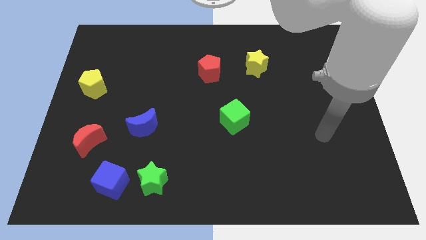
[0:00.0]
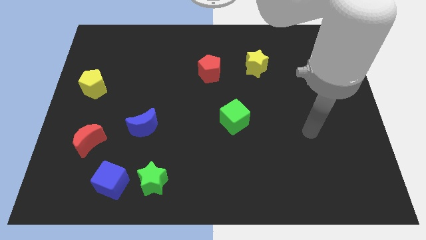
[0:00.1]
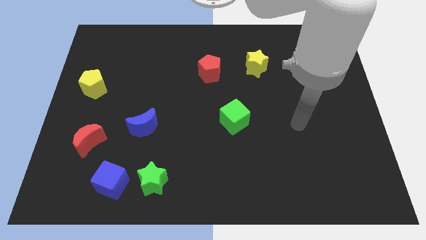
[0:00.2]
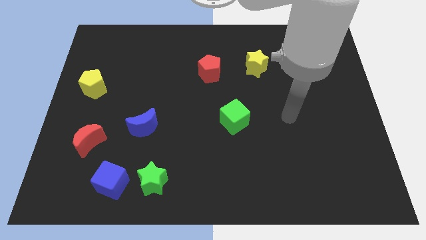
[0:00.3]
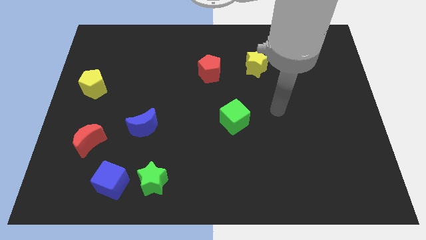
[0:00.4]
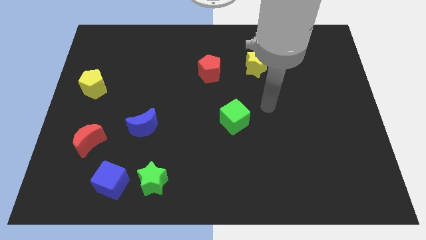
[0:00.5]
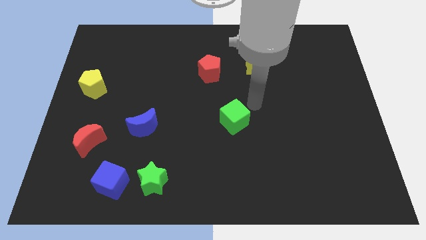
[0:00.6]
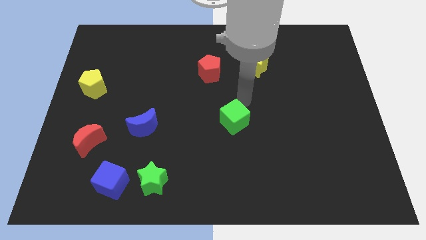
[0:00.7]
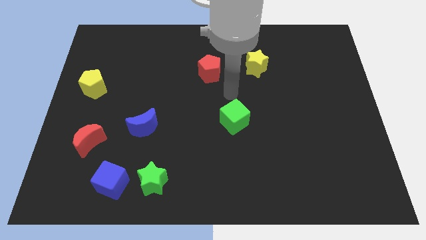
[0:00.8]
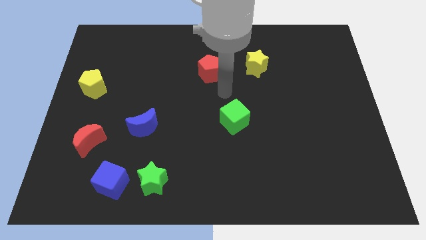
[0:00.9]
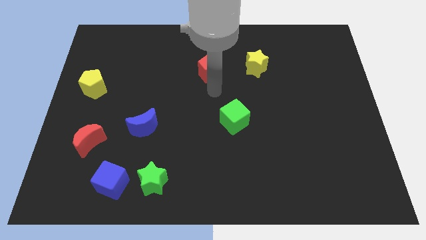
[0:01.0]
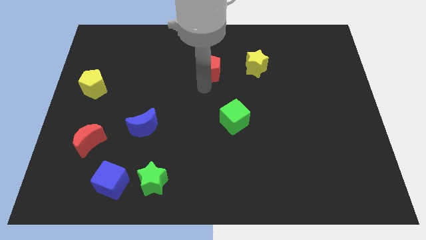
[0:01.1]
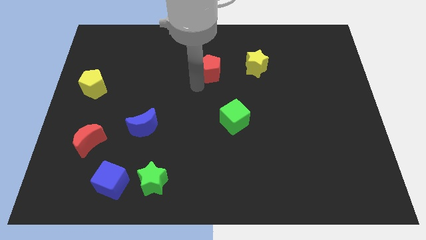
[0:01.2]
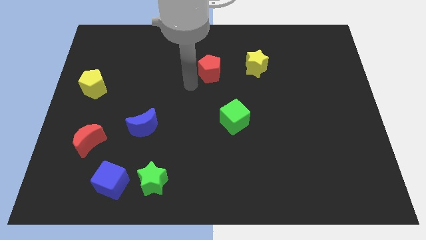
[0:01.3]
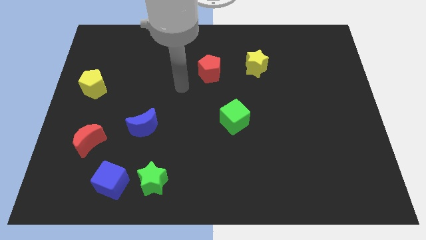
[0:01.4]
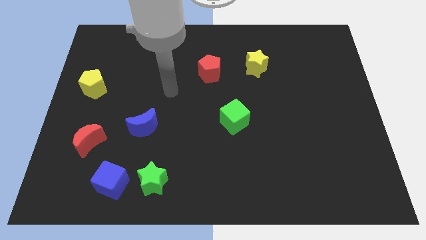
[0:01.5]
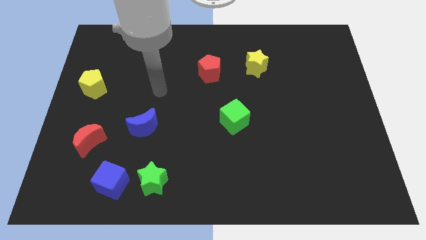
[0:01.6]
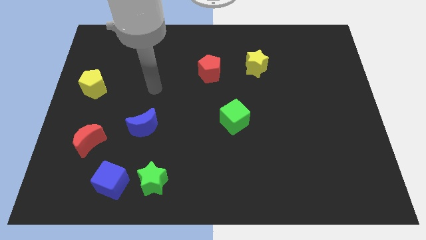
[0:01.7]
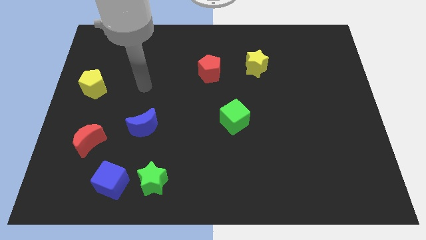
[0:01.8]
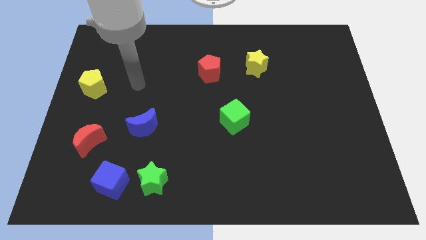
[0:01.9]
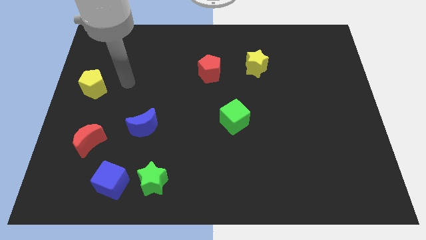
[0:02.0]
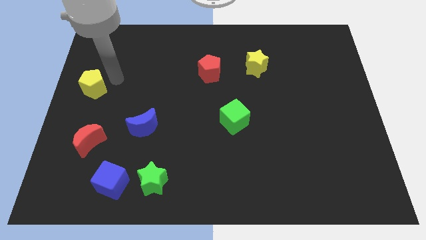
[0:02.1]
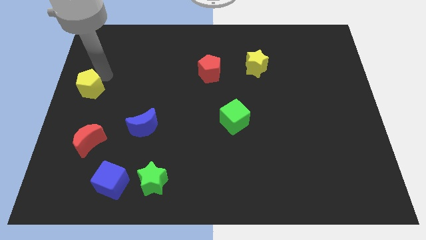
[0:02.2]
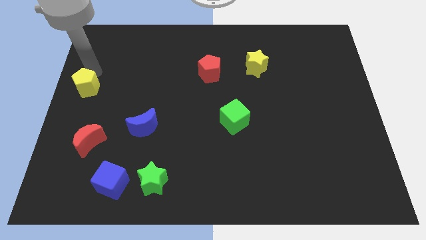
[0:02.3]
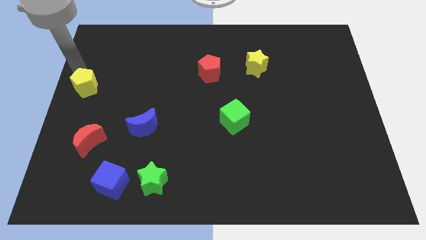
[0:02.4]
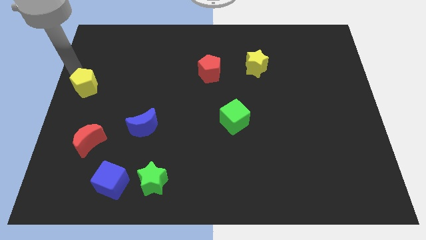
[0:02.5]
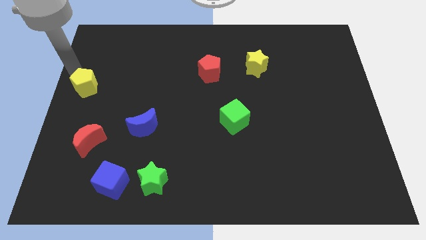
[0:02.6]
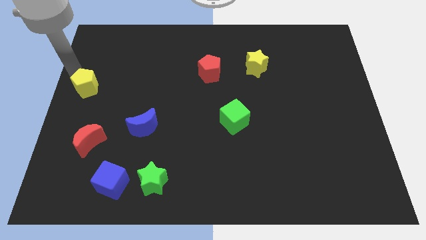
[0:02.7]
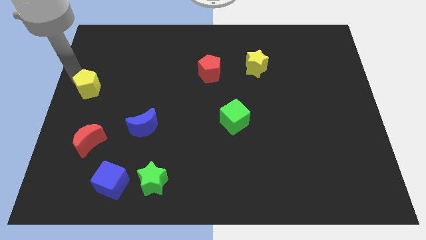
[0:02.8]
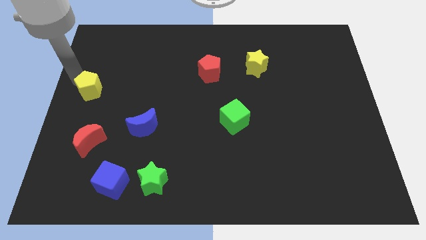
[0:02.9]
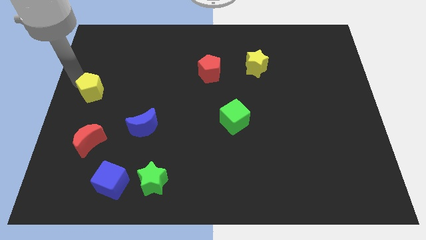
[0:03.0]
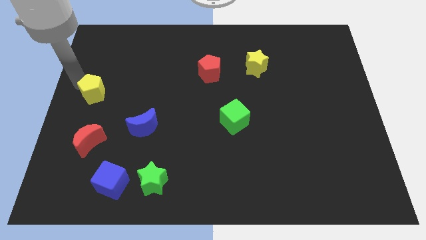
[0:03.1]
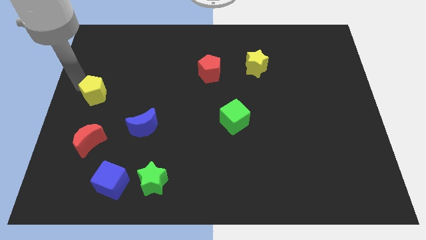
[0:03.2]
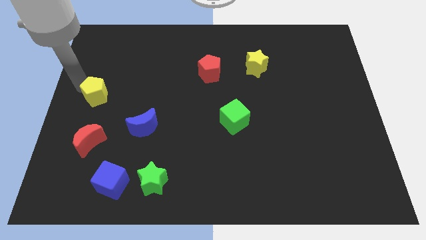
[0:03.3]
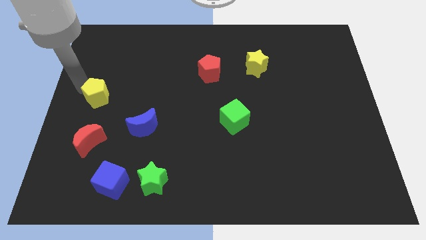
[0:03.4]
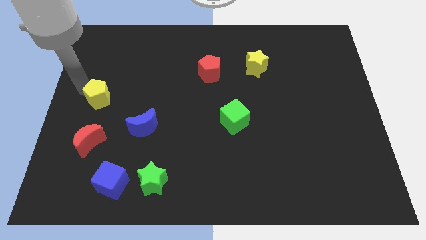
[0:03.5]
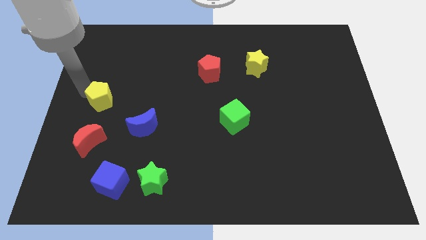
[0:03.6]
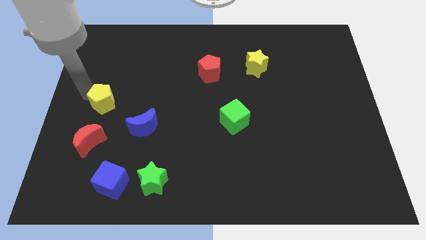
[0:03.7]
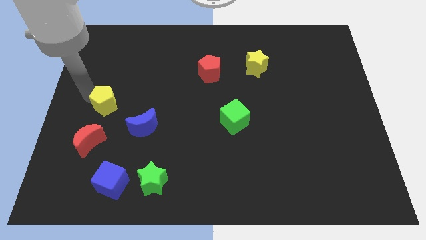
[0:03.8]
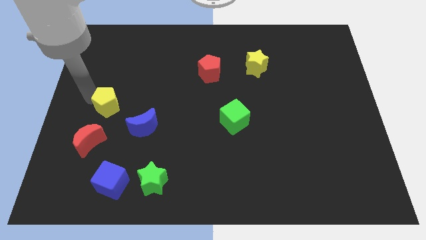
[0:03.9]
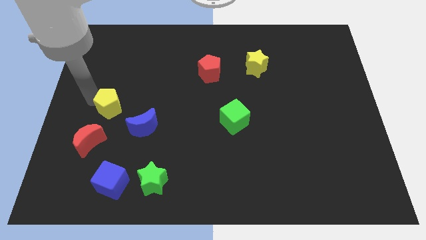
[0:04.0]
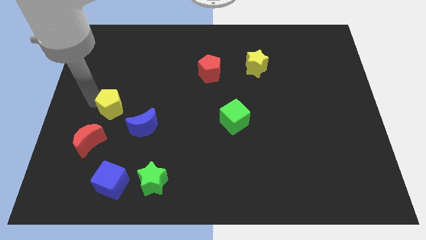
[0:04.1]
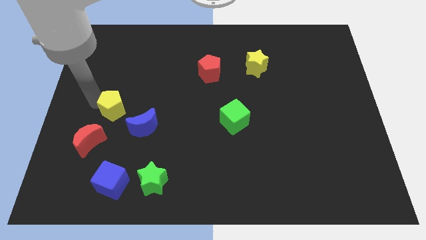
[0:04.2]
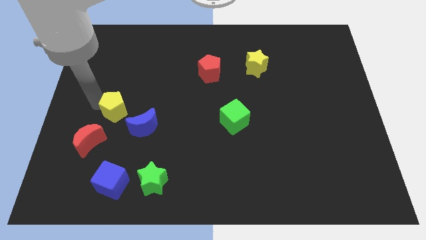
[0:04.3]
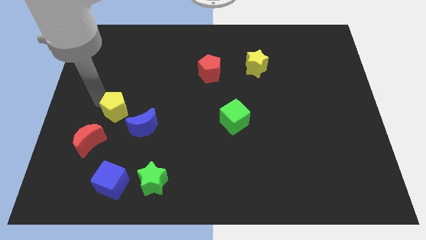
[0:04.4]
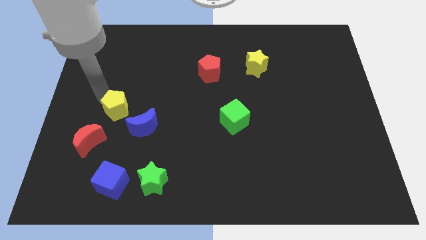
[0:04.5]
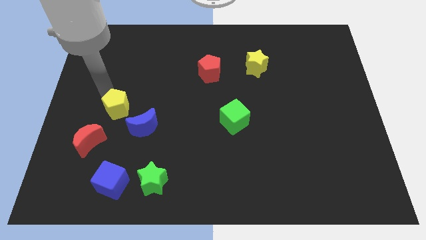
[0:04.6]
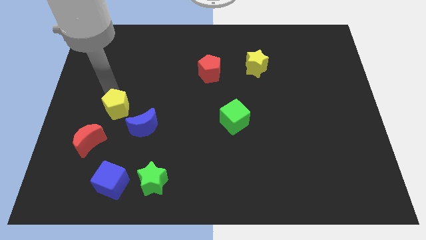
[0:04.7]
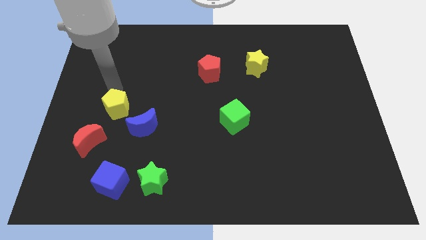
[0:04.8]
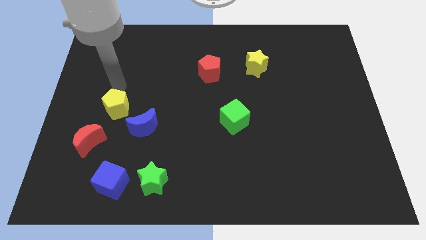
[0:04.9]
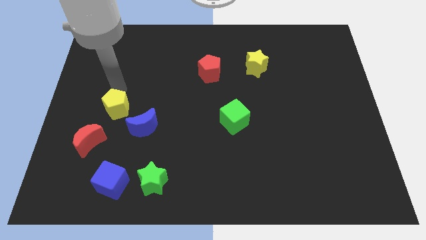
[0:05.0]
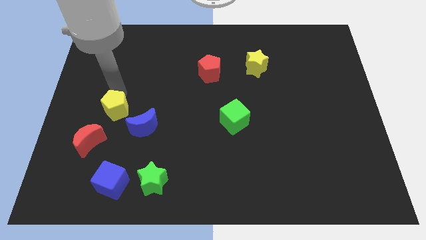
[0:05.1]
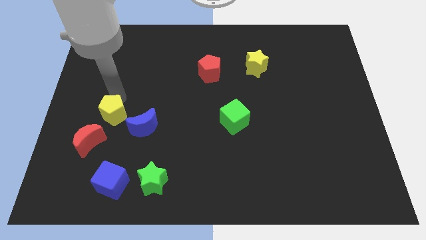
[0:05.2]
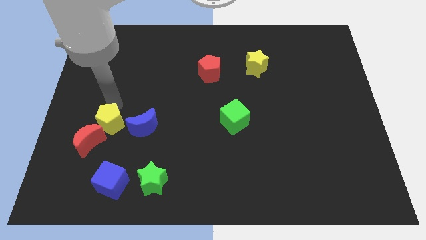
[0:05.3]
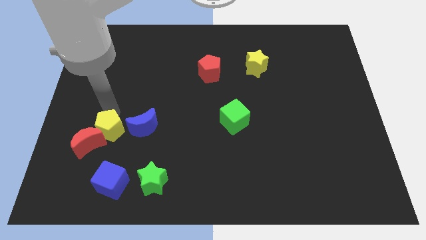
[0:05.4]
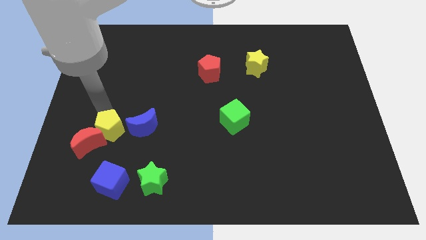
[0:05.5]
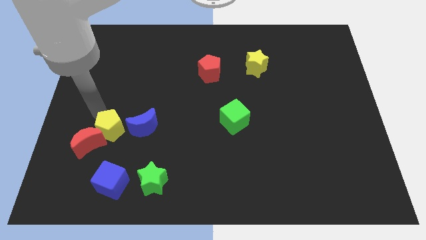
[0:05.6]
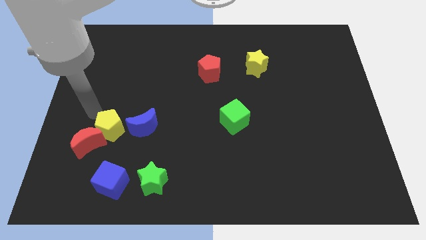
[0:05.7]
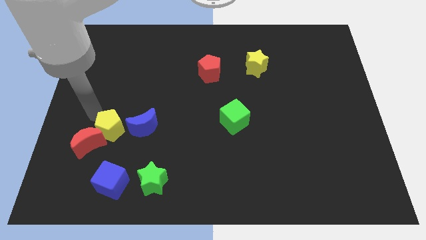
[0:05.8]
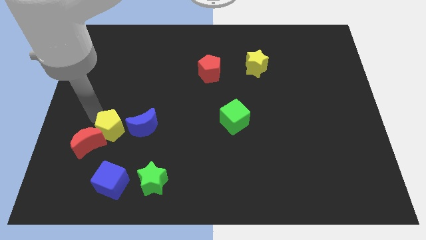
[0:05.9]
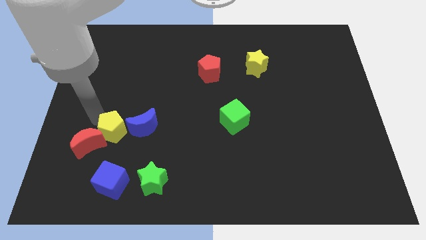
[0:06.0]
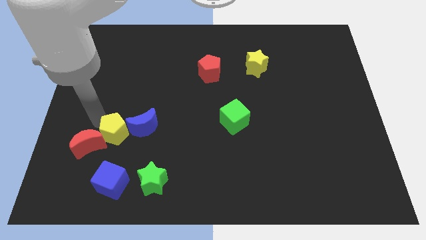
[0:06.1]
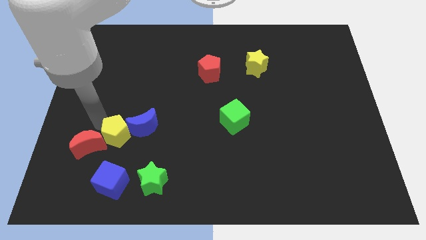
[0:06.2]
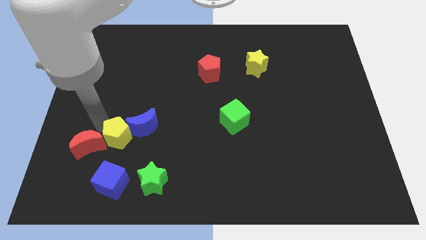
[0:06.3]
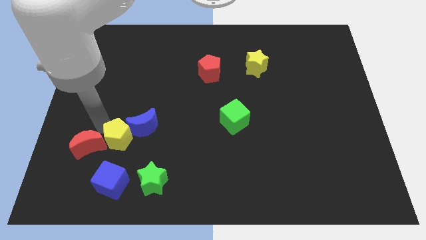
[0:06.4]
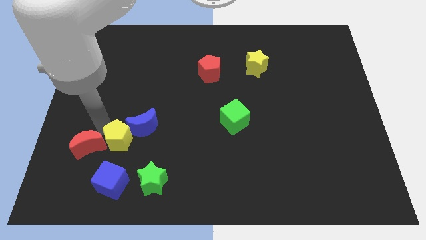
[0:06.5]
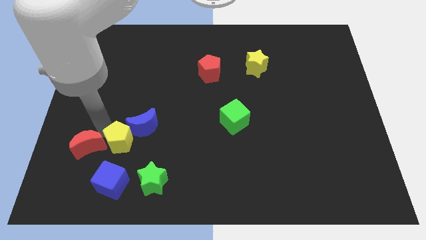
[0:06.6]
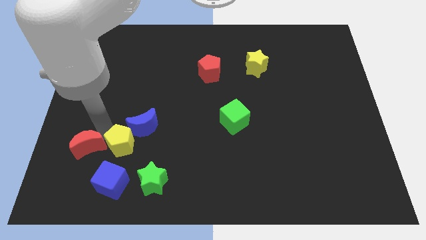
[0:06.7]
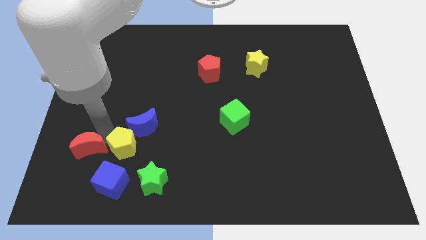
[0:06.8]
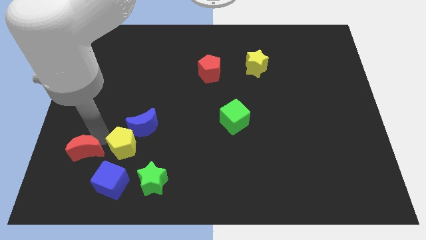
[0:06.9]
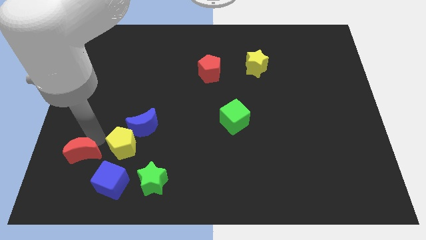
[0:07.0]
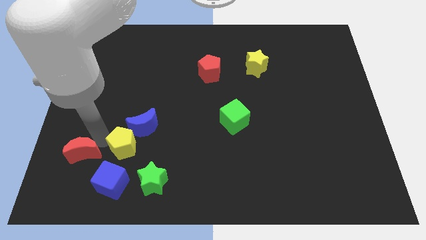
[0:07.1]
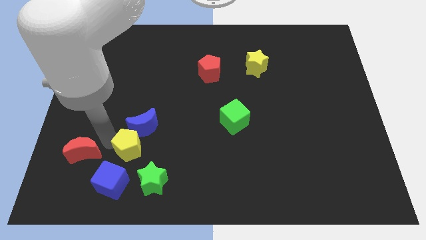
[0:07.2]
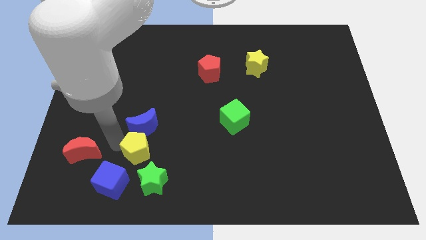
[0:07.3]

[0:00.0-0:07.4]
move the yellow pentagon downwards and then right

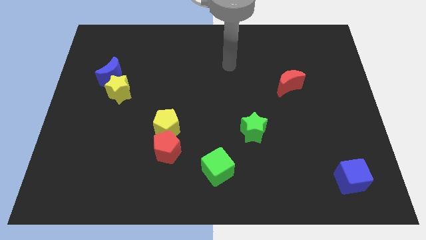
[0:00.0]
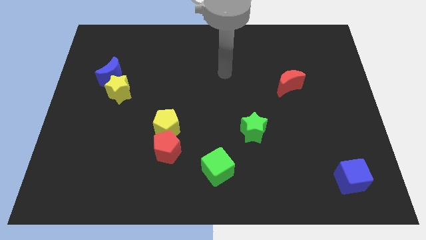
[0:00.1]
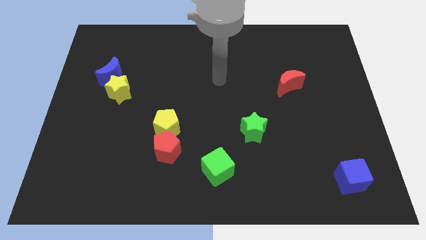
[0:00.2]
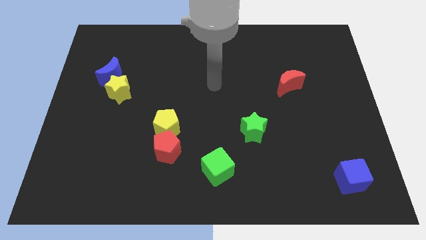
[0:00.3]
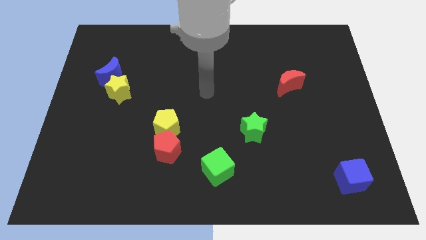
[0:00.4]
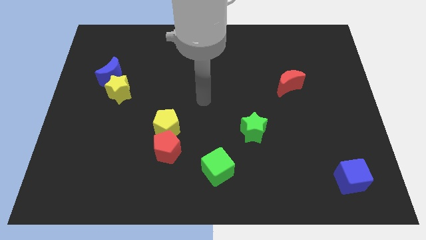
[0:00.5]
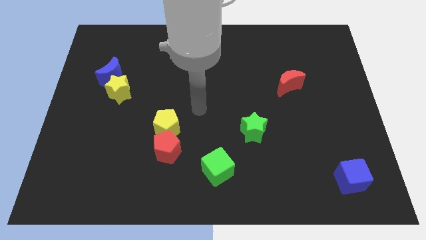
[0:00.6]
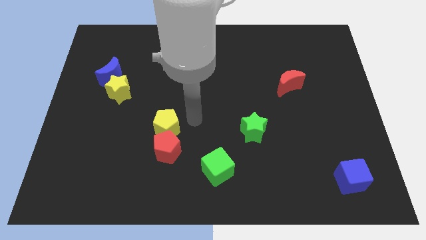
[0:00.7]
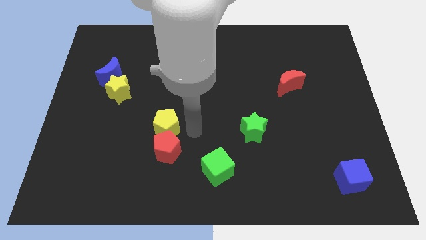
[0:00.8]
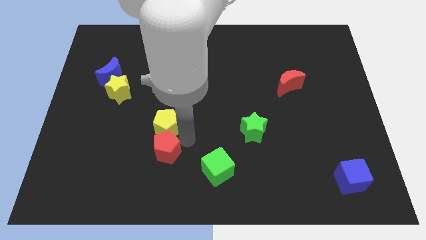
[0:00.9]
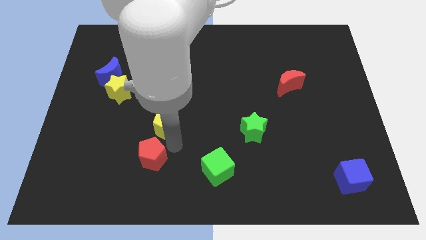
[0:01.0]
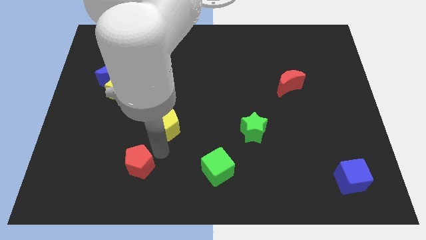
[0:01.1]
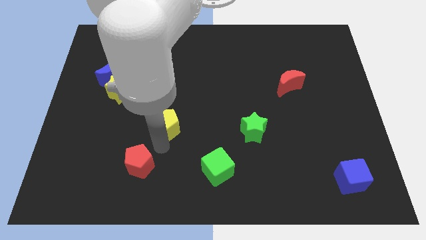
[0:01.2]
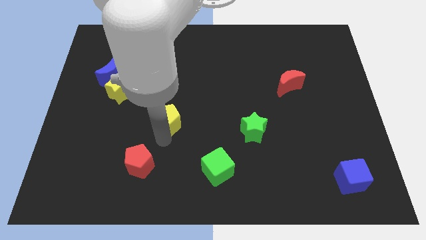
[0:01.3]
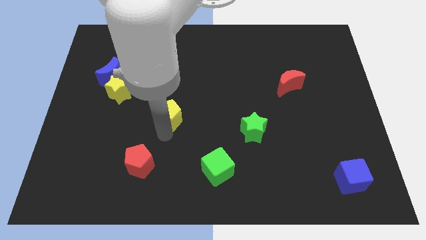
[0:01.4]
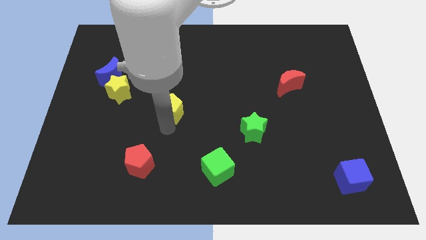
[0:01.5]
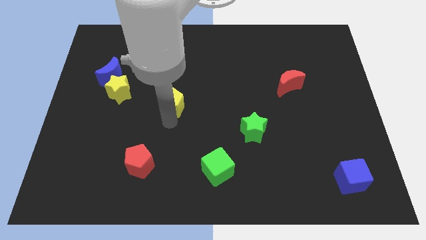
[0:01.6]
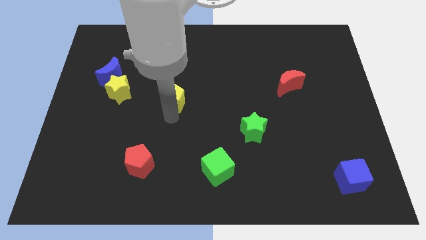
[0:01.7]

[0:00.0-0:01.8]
push the yellow pentagon a little bit upwards
